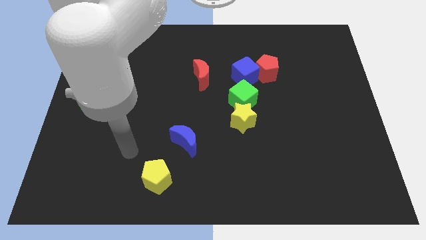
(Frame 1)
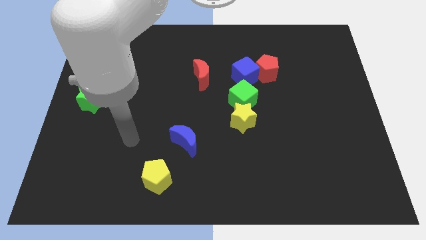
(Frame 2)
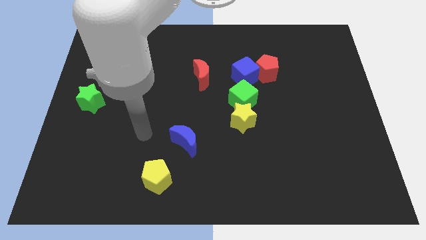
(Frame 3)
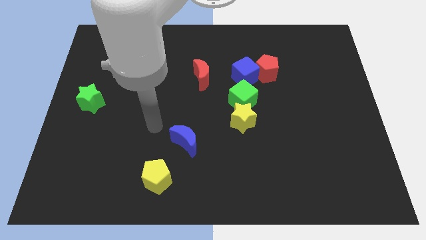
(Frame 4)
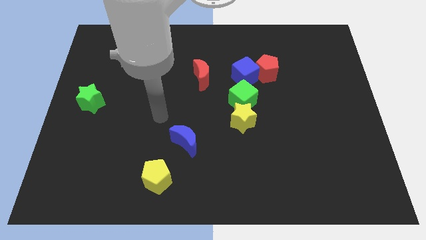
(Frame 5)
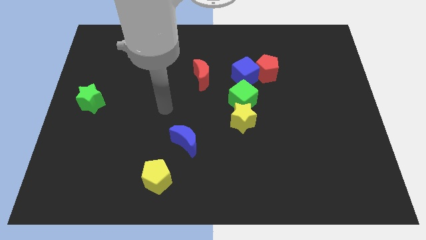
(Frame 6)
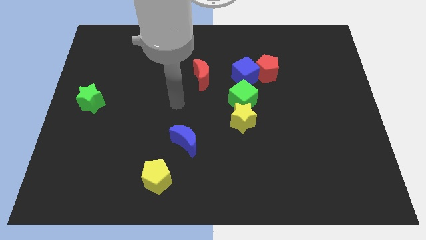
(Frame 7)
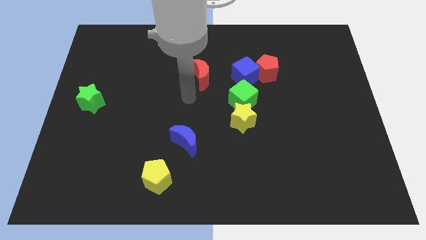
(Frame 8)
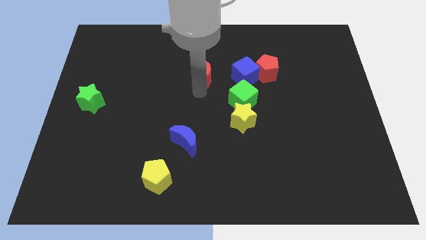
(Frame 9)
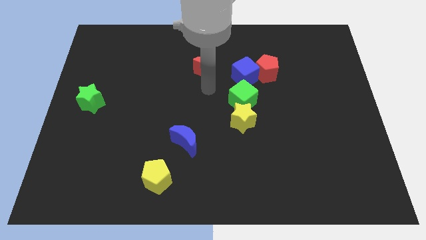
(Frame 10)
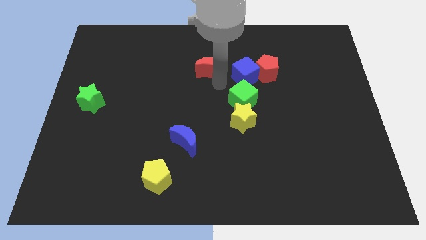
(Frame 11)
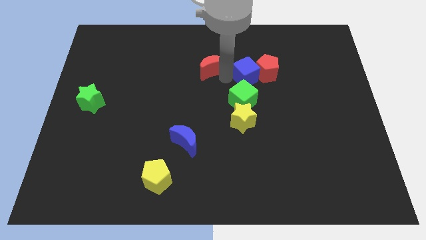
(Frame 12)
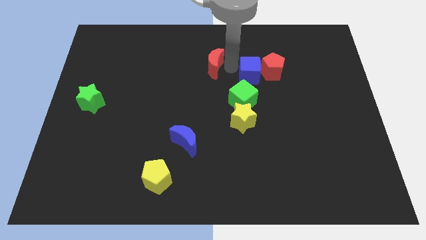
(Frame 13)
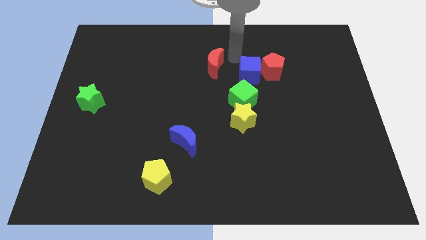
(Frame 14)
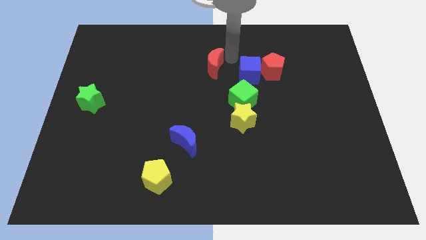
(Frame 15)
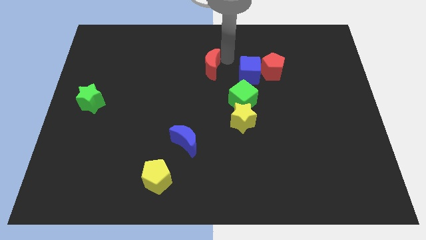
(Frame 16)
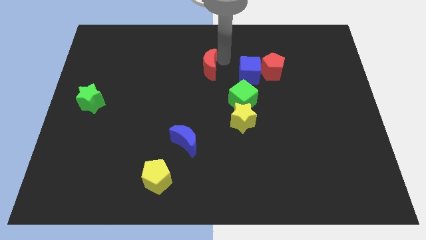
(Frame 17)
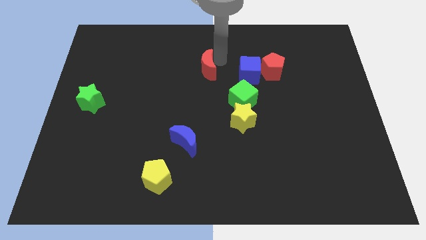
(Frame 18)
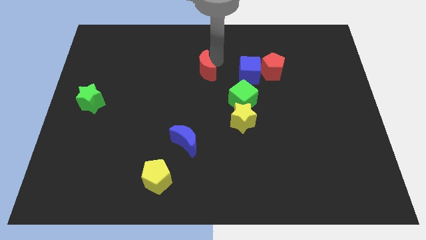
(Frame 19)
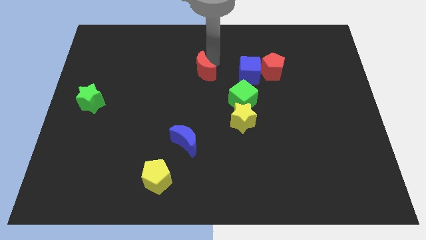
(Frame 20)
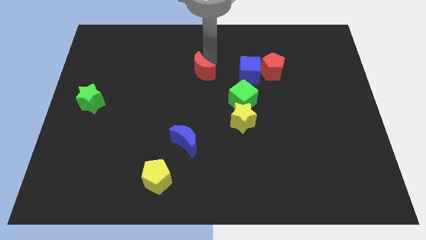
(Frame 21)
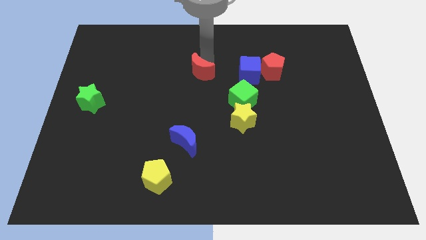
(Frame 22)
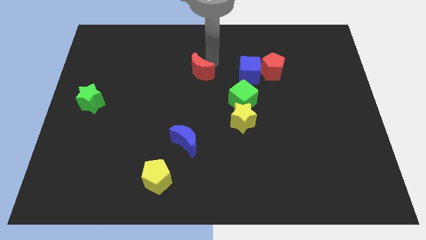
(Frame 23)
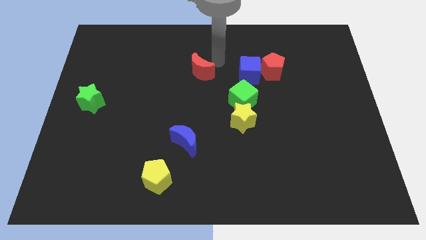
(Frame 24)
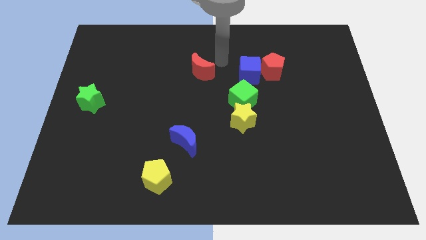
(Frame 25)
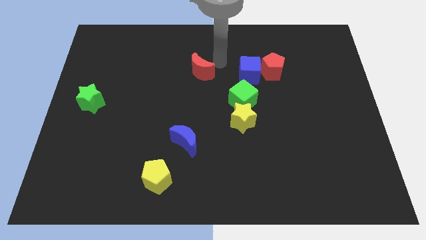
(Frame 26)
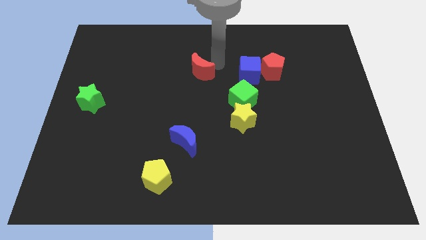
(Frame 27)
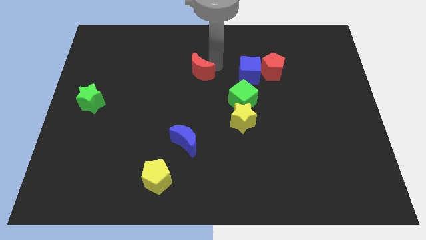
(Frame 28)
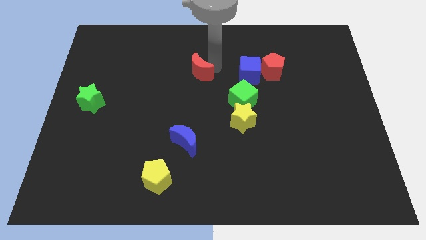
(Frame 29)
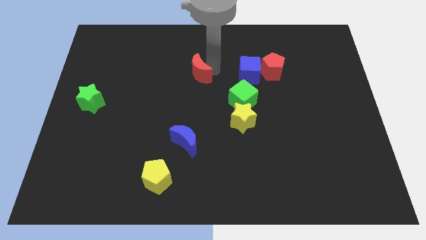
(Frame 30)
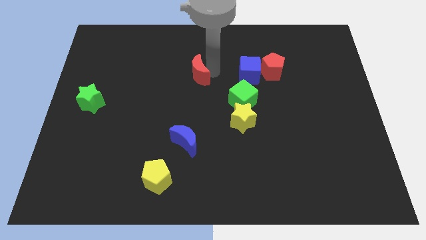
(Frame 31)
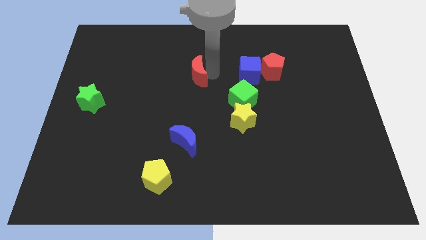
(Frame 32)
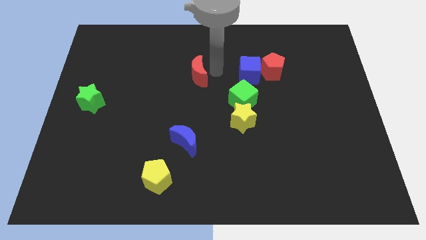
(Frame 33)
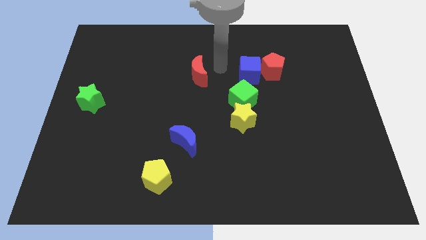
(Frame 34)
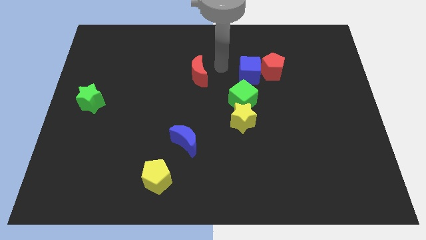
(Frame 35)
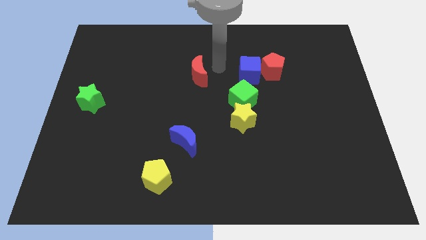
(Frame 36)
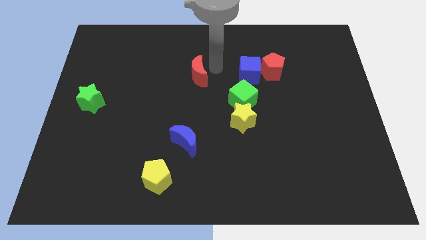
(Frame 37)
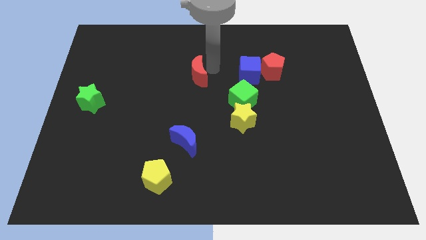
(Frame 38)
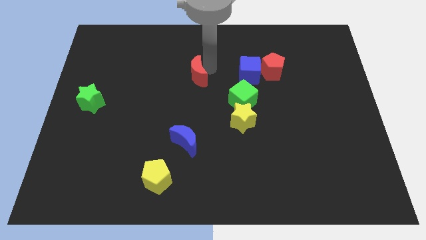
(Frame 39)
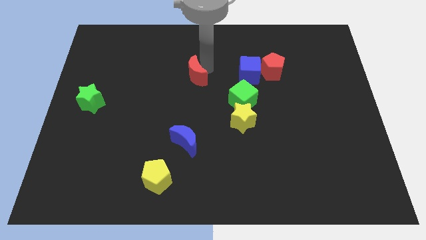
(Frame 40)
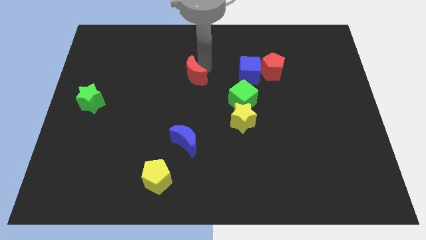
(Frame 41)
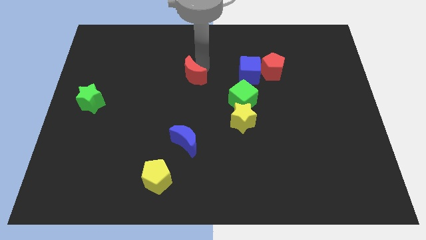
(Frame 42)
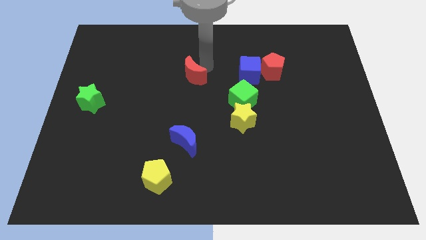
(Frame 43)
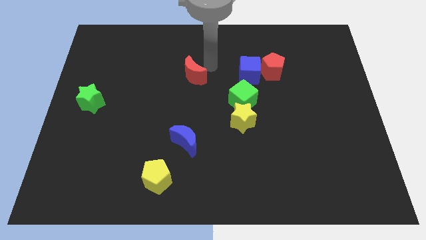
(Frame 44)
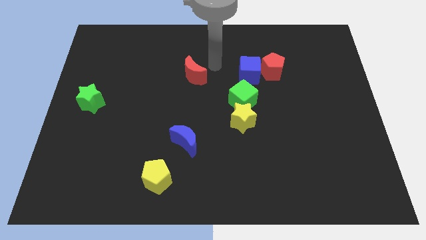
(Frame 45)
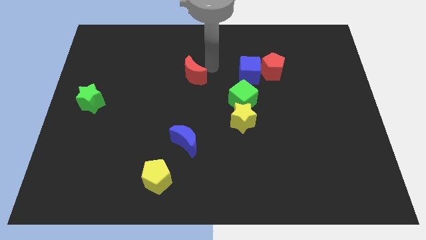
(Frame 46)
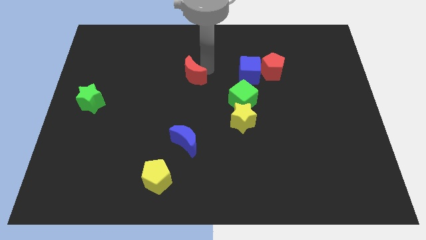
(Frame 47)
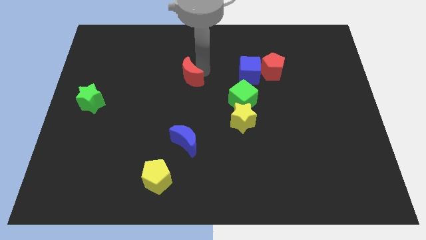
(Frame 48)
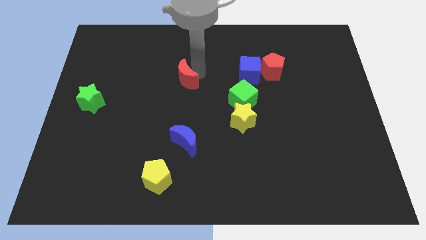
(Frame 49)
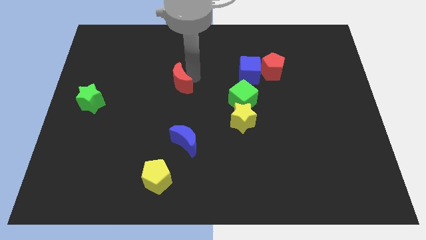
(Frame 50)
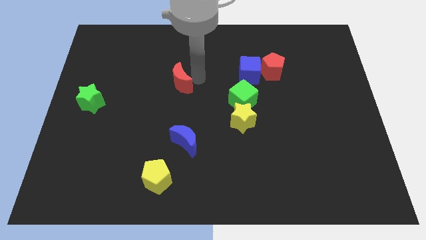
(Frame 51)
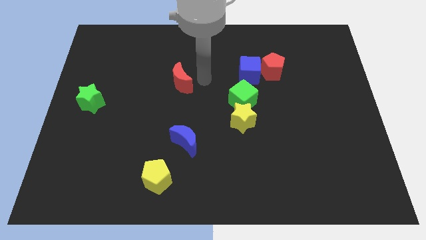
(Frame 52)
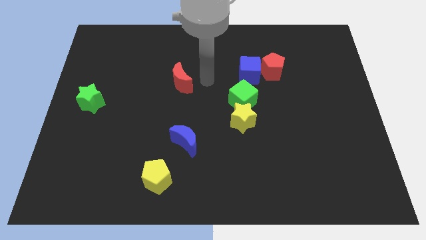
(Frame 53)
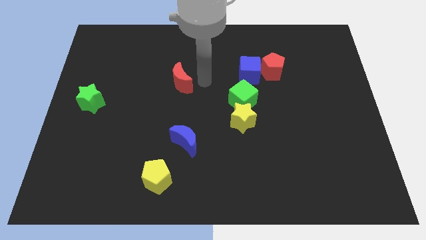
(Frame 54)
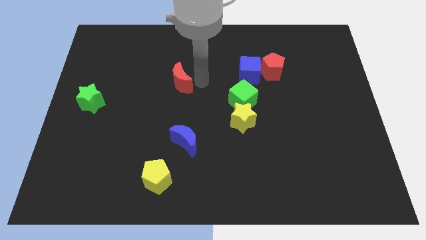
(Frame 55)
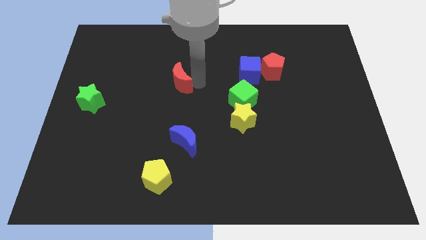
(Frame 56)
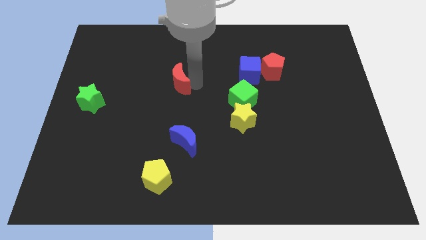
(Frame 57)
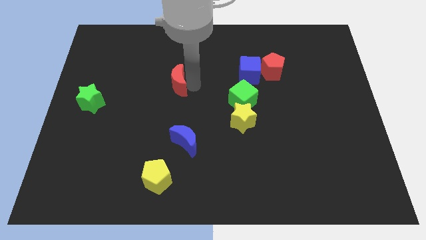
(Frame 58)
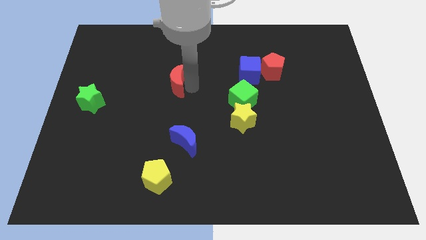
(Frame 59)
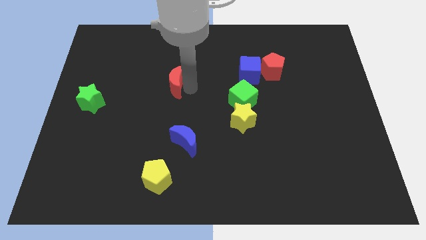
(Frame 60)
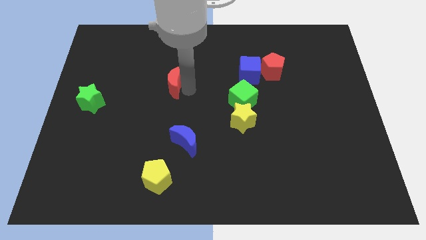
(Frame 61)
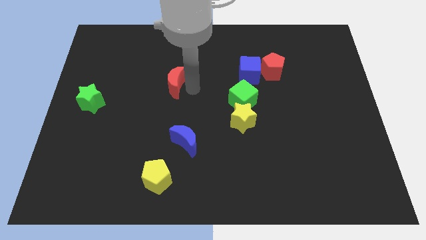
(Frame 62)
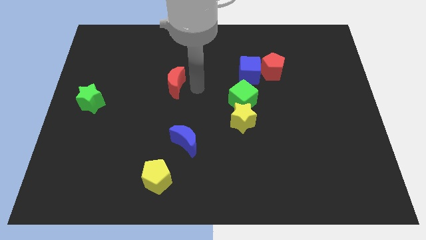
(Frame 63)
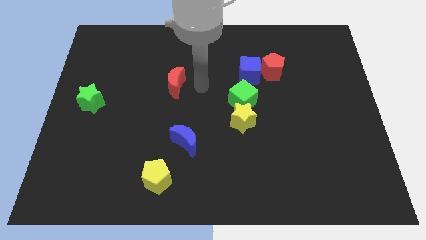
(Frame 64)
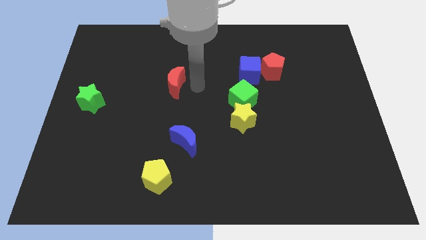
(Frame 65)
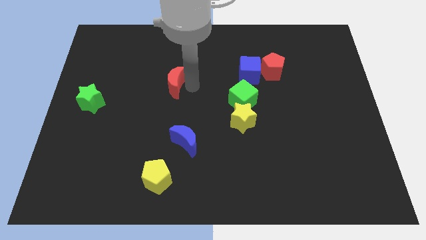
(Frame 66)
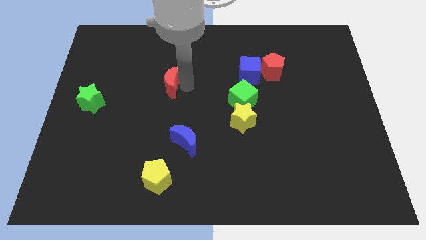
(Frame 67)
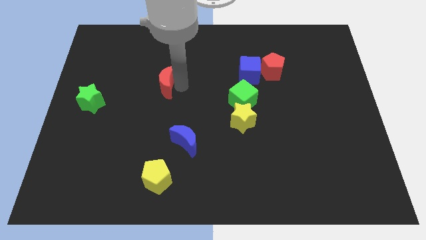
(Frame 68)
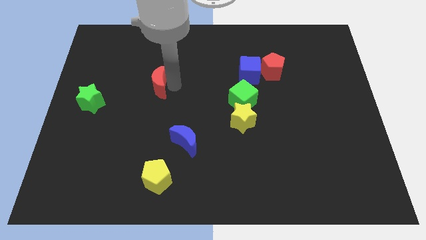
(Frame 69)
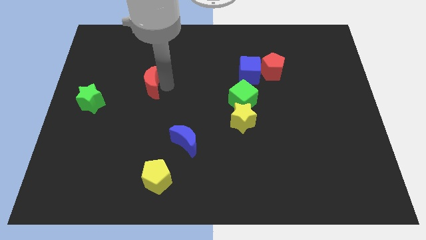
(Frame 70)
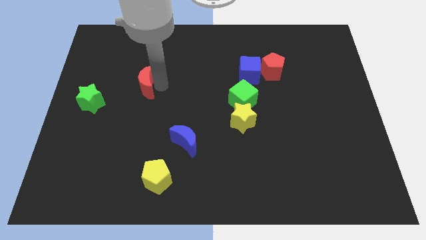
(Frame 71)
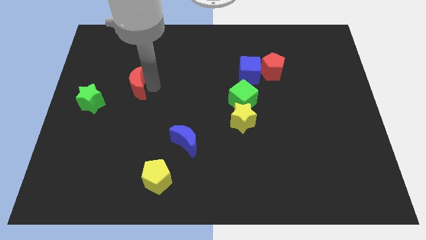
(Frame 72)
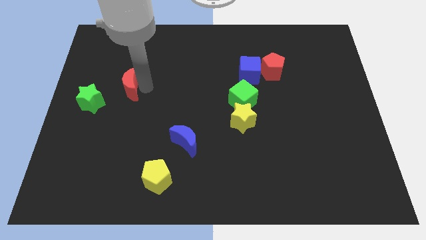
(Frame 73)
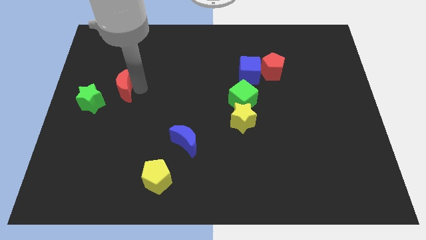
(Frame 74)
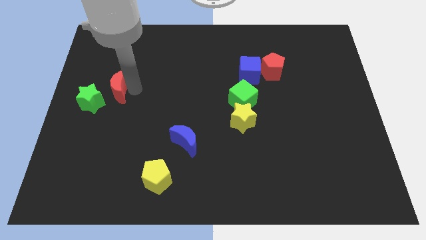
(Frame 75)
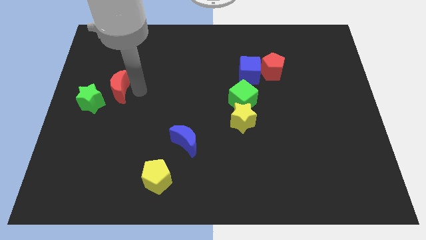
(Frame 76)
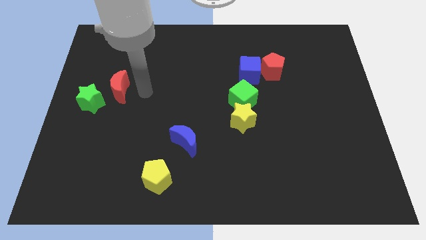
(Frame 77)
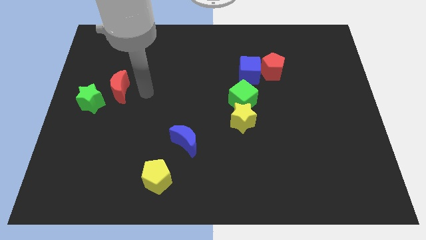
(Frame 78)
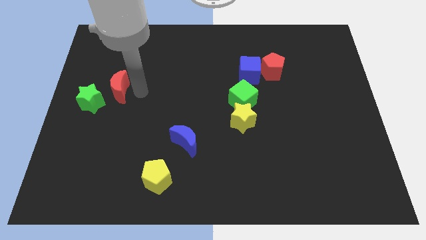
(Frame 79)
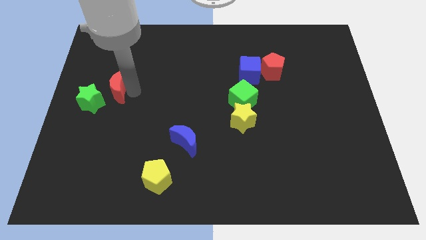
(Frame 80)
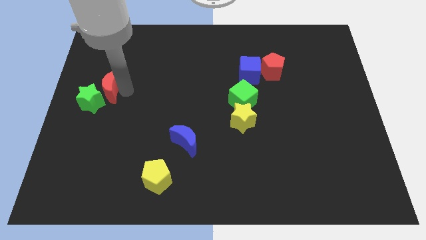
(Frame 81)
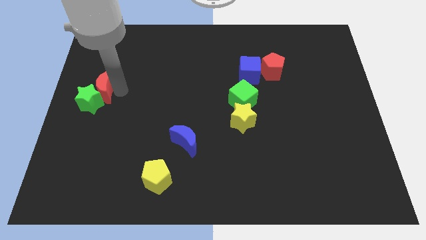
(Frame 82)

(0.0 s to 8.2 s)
move the red moon to the center left
